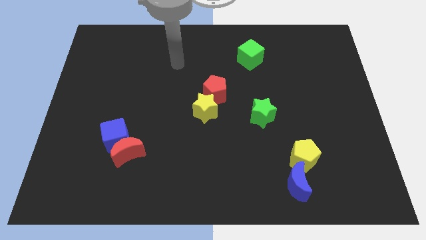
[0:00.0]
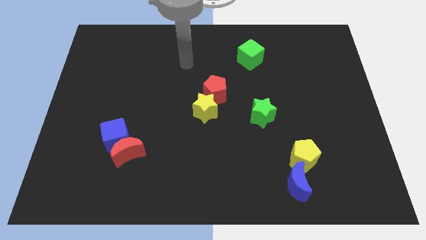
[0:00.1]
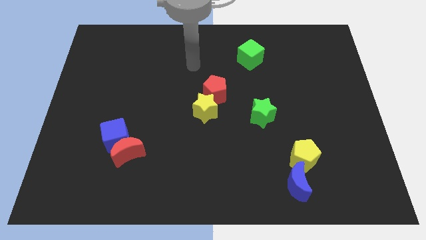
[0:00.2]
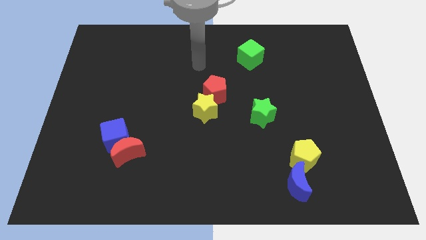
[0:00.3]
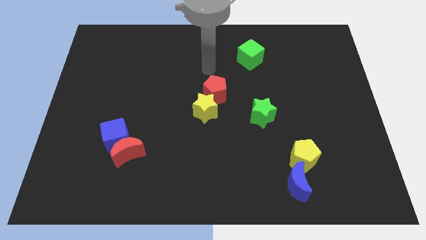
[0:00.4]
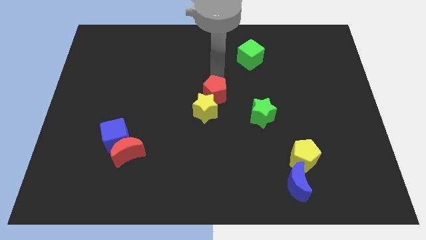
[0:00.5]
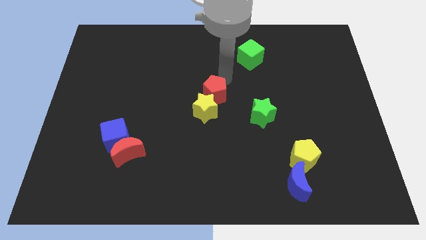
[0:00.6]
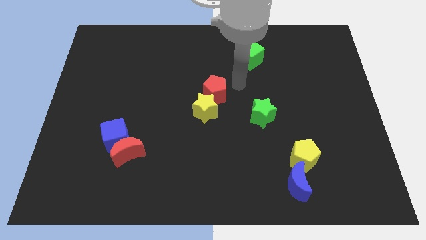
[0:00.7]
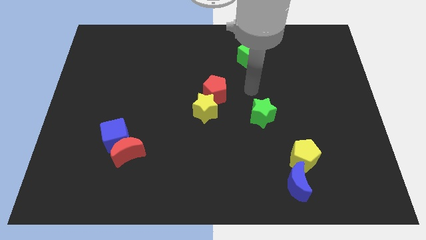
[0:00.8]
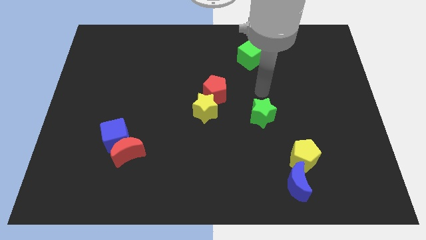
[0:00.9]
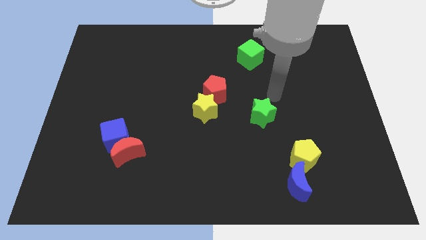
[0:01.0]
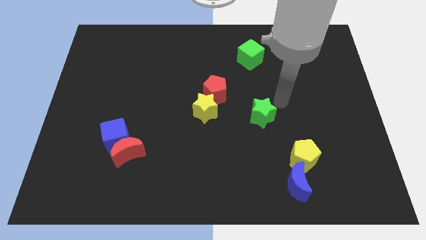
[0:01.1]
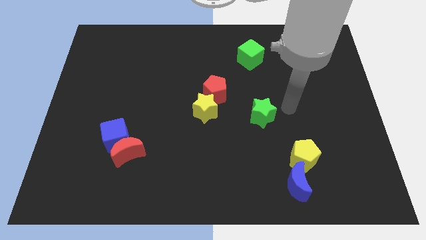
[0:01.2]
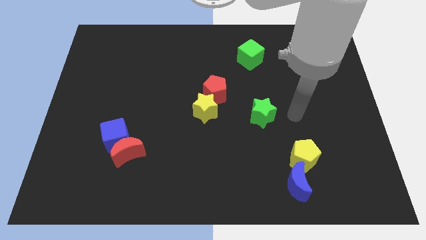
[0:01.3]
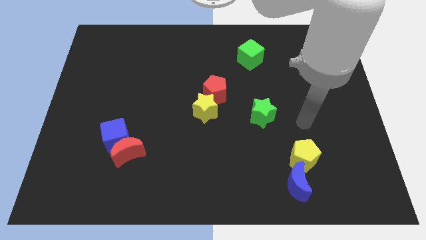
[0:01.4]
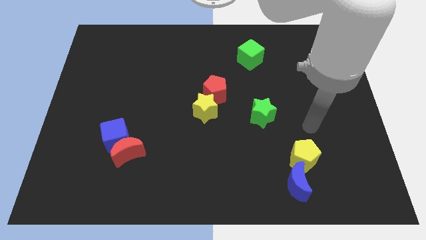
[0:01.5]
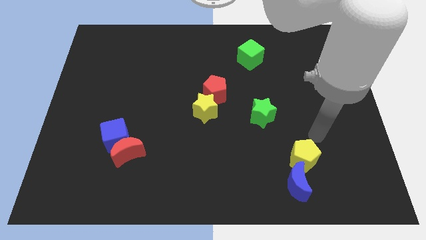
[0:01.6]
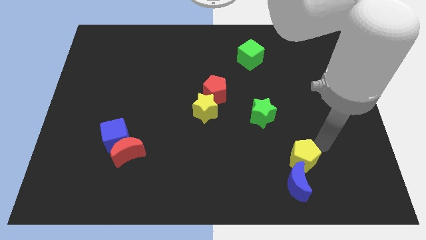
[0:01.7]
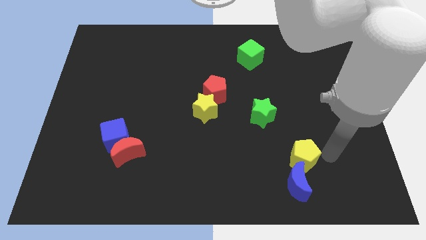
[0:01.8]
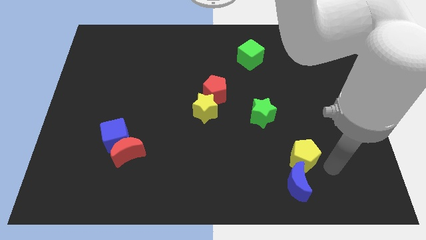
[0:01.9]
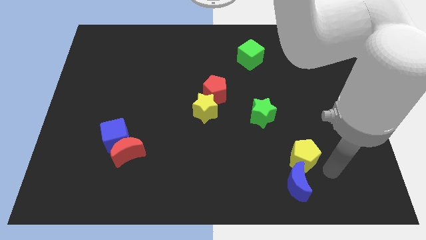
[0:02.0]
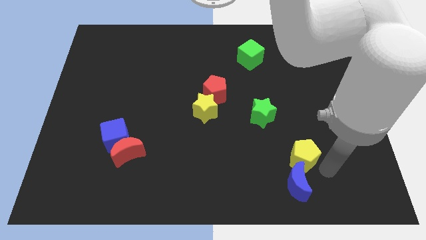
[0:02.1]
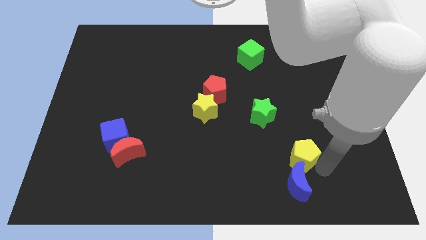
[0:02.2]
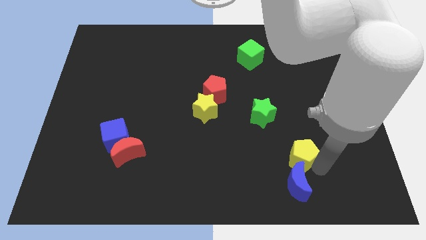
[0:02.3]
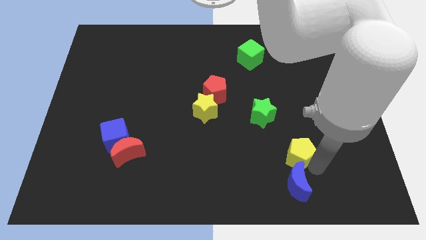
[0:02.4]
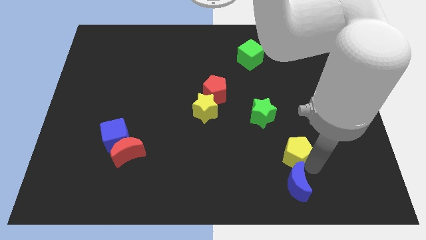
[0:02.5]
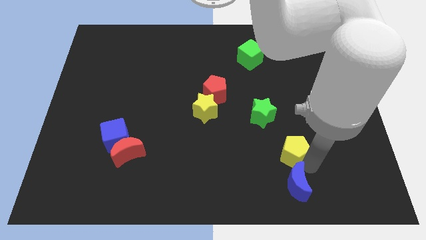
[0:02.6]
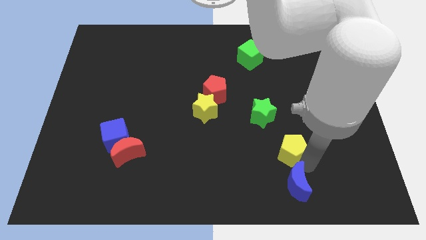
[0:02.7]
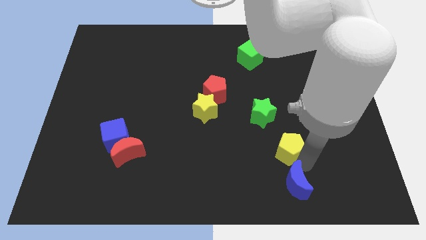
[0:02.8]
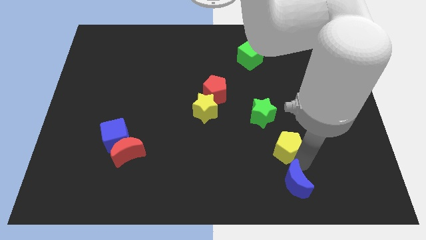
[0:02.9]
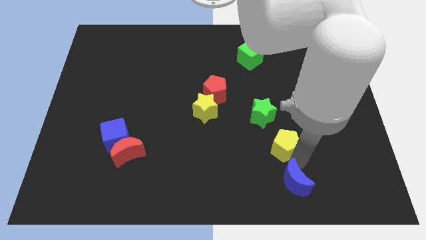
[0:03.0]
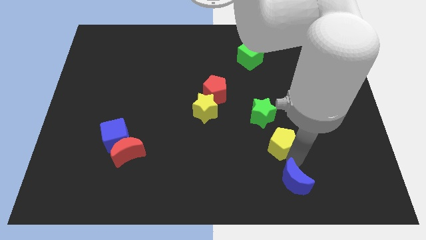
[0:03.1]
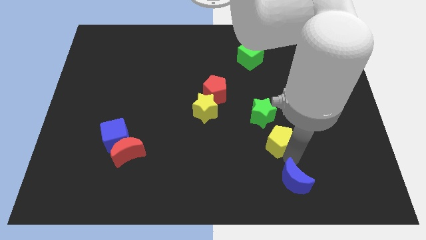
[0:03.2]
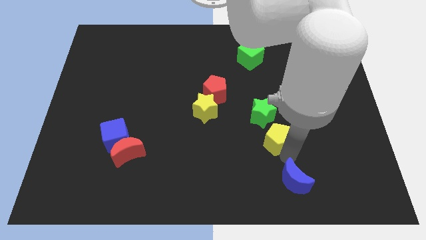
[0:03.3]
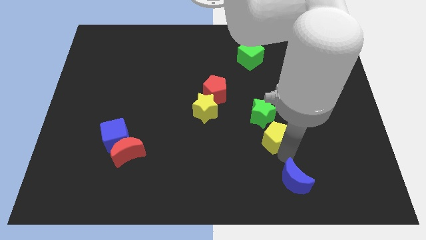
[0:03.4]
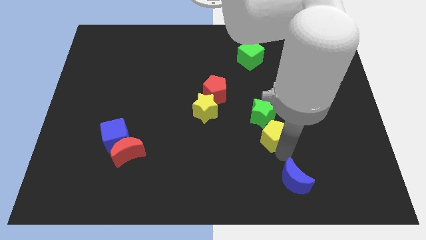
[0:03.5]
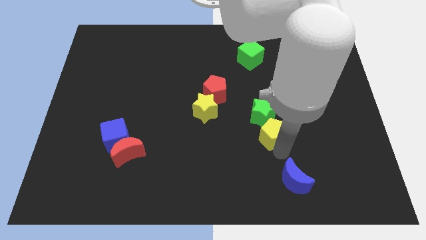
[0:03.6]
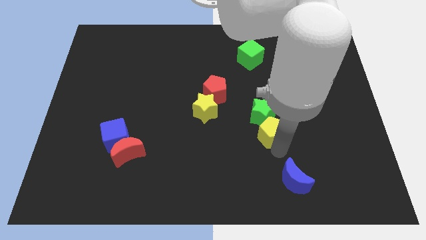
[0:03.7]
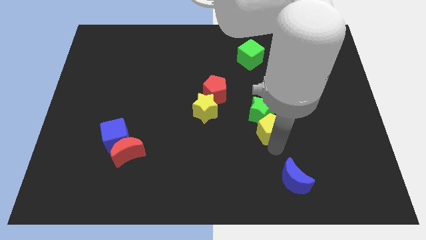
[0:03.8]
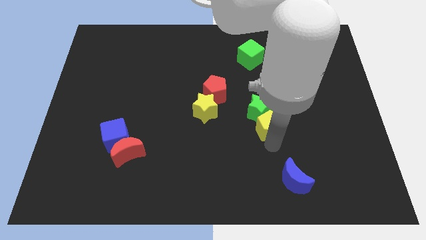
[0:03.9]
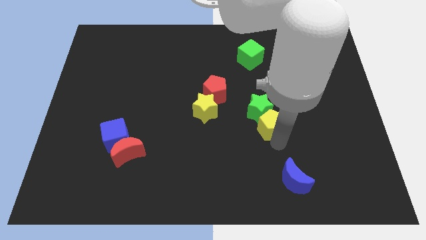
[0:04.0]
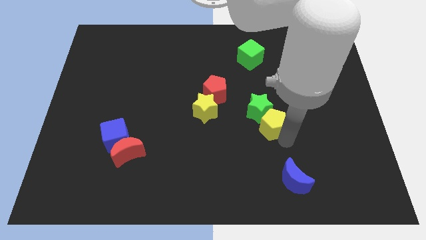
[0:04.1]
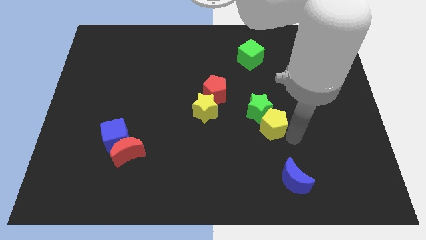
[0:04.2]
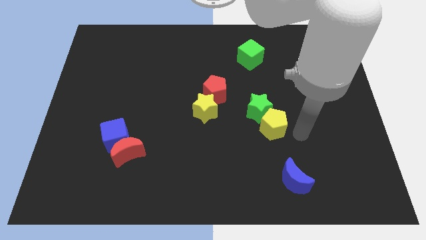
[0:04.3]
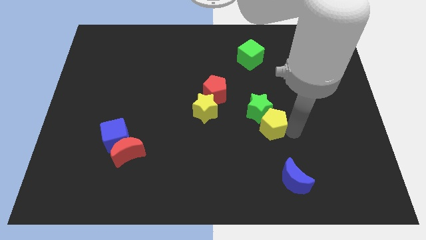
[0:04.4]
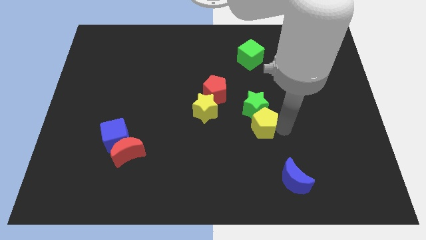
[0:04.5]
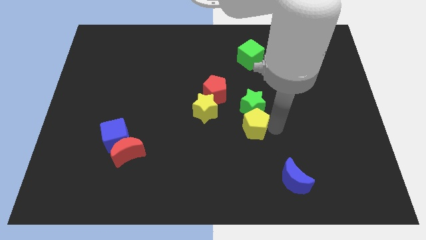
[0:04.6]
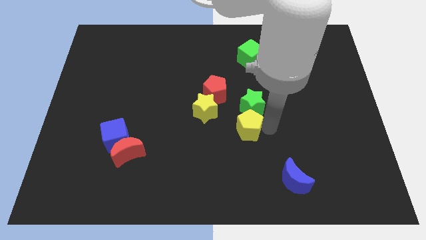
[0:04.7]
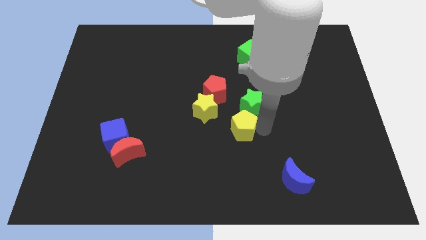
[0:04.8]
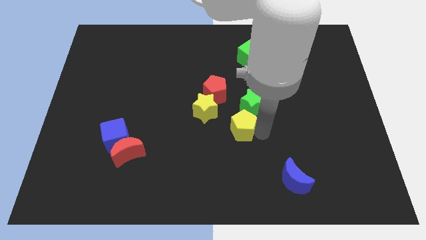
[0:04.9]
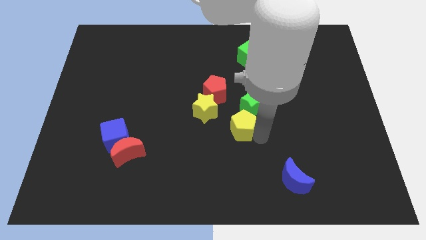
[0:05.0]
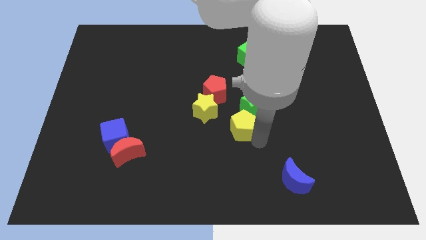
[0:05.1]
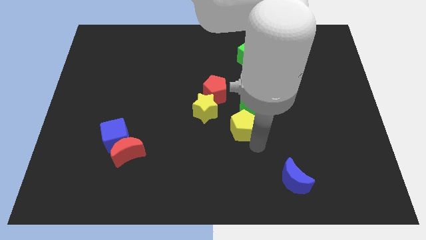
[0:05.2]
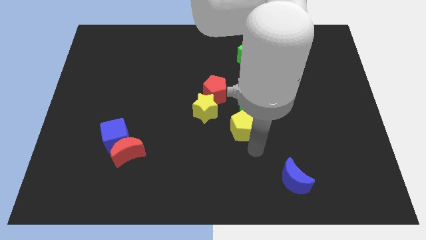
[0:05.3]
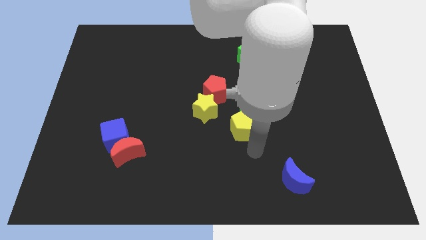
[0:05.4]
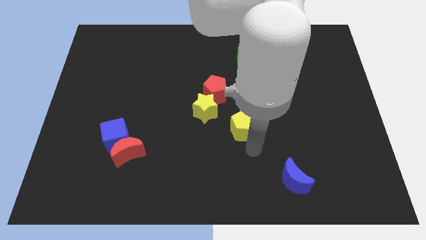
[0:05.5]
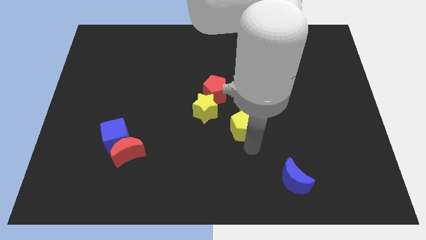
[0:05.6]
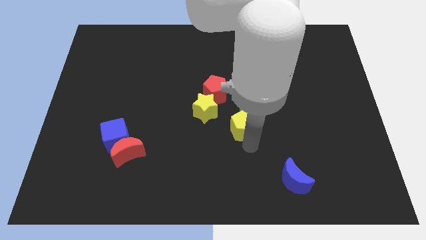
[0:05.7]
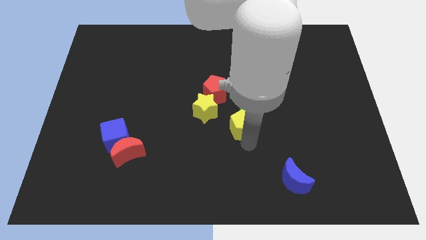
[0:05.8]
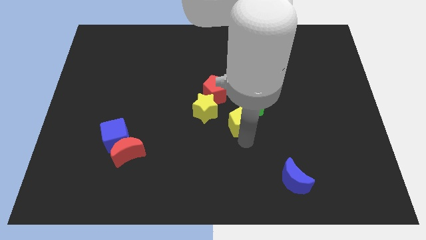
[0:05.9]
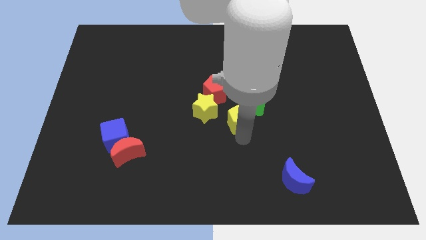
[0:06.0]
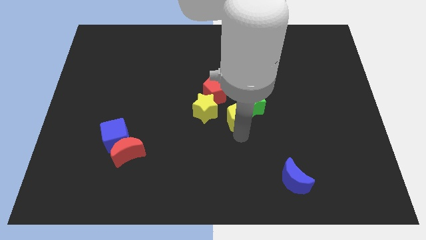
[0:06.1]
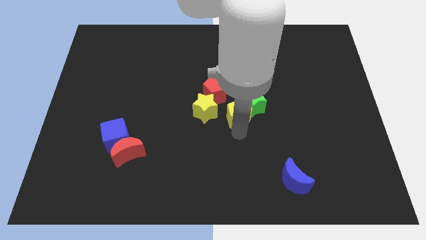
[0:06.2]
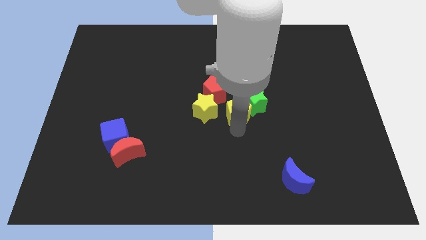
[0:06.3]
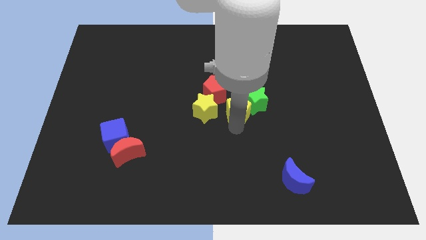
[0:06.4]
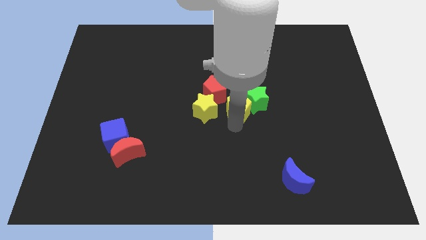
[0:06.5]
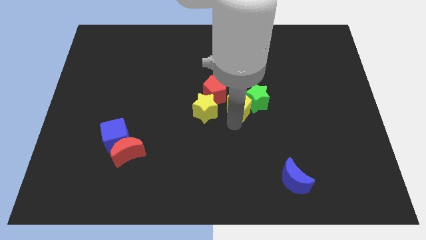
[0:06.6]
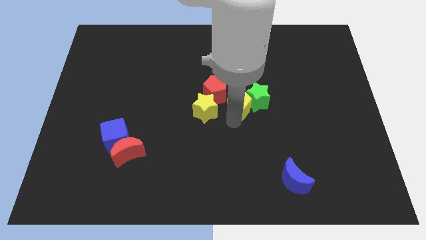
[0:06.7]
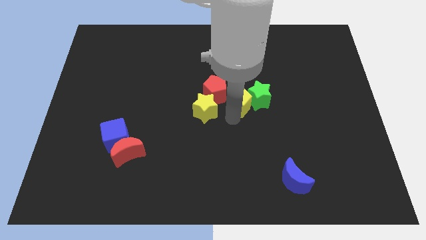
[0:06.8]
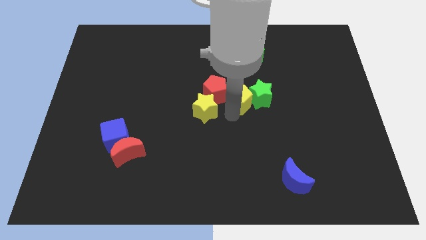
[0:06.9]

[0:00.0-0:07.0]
slide the yellow pentagon diagonally up and to the left

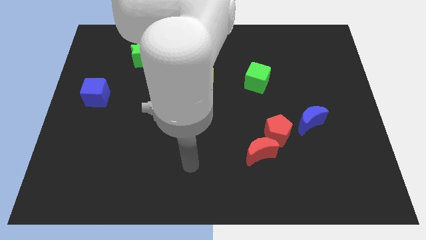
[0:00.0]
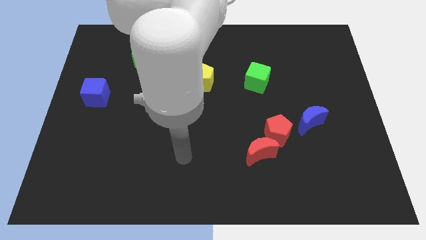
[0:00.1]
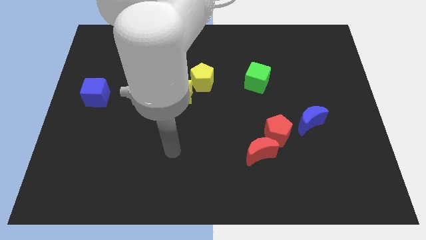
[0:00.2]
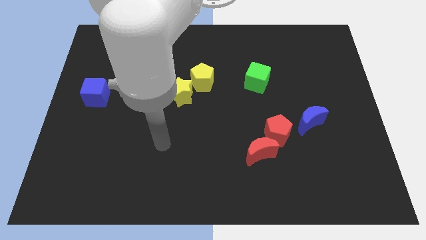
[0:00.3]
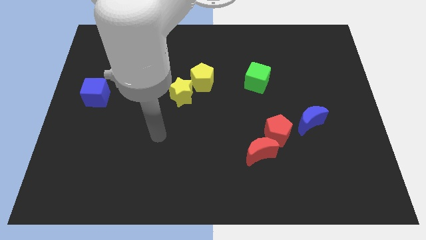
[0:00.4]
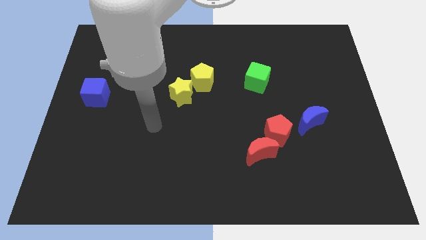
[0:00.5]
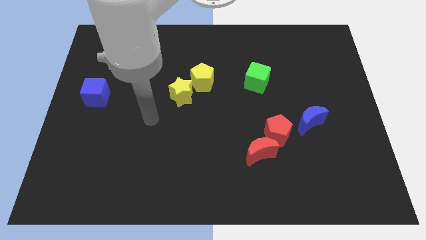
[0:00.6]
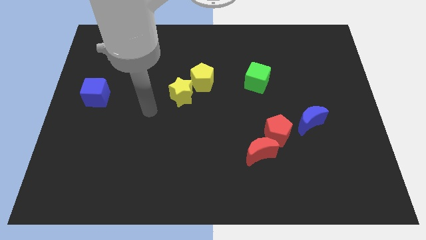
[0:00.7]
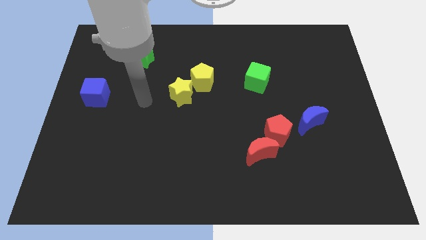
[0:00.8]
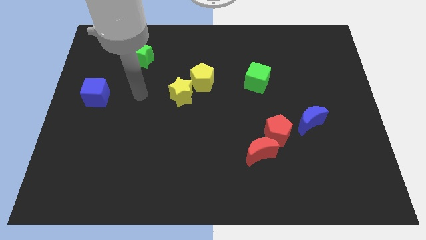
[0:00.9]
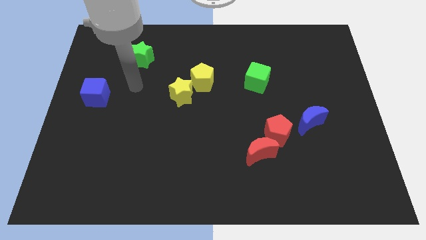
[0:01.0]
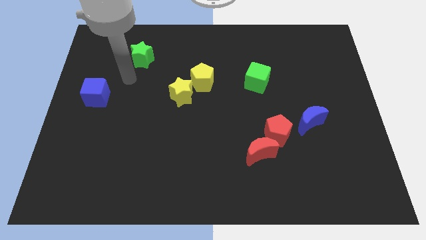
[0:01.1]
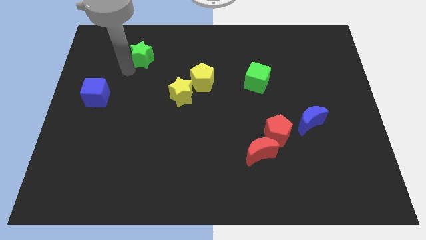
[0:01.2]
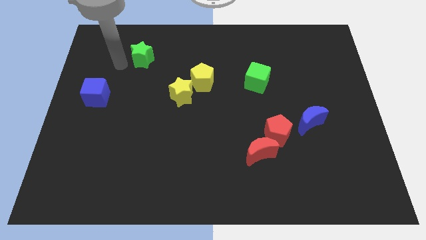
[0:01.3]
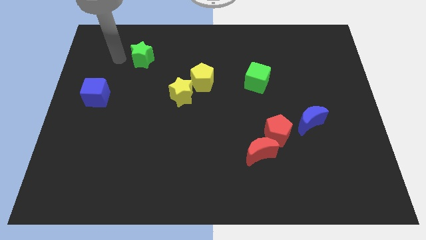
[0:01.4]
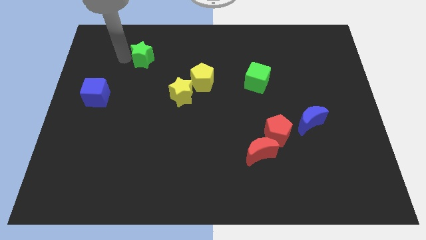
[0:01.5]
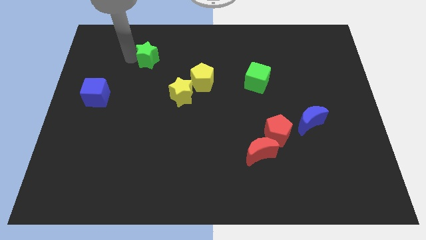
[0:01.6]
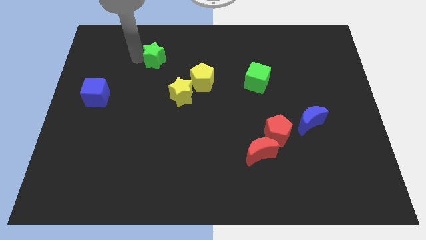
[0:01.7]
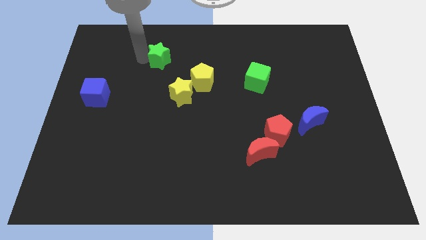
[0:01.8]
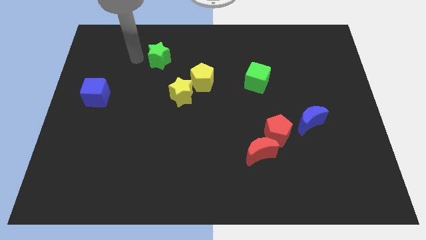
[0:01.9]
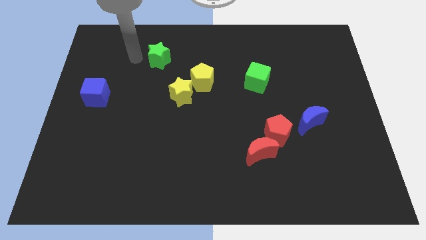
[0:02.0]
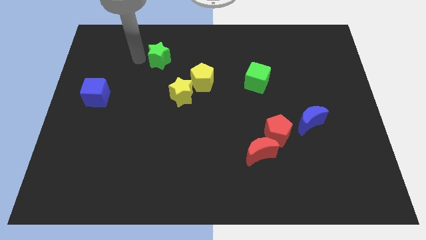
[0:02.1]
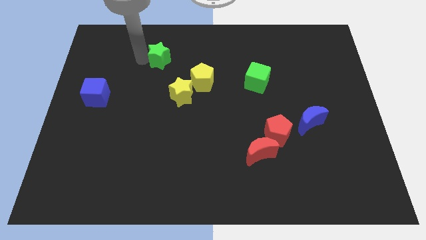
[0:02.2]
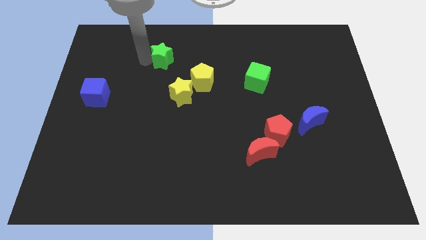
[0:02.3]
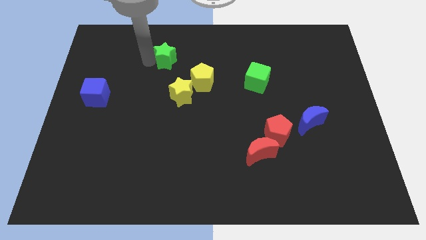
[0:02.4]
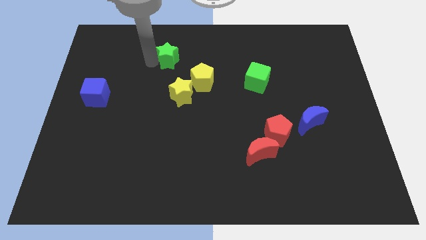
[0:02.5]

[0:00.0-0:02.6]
push the green star right a little bit
